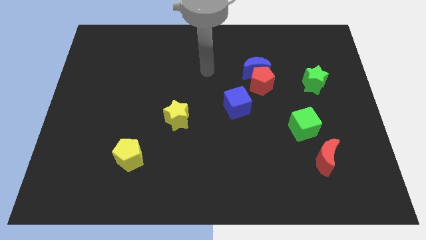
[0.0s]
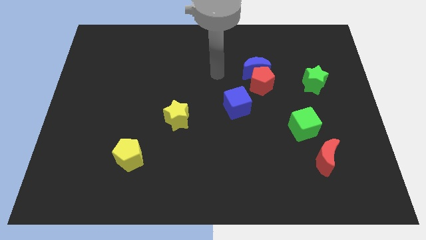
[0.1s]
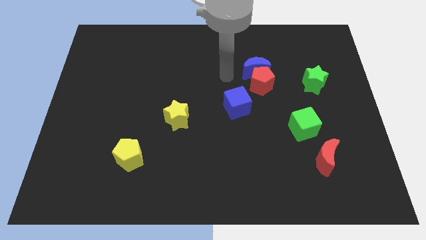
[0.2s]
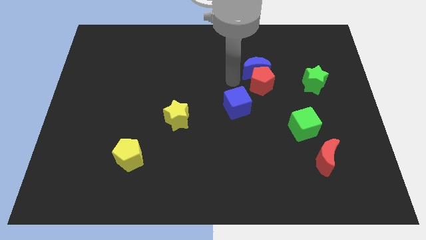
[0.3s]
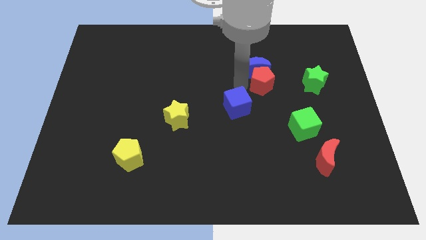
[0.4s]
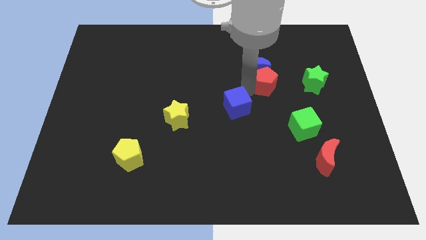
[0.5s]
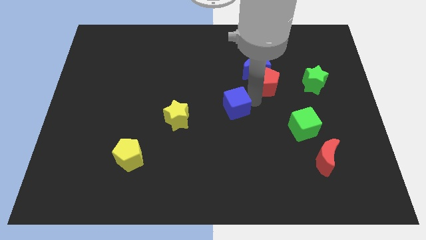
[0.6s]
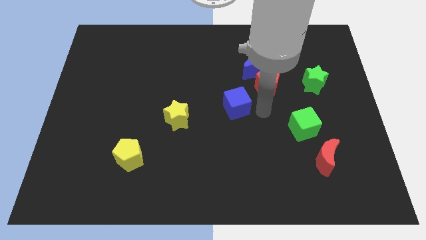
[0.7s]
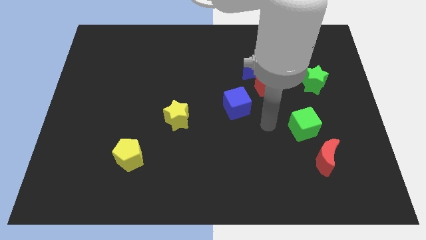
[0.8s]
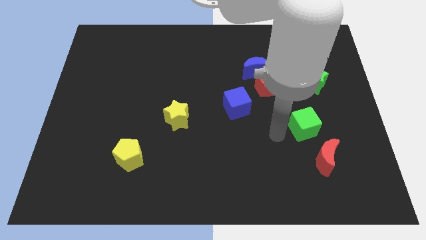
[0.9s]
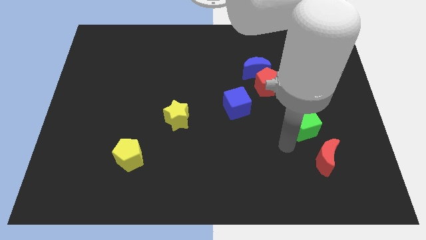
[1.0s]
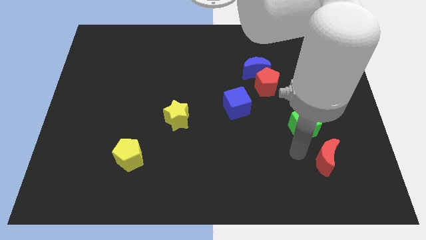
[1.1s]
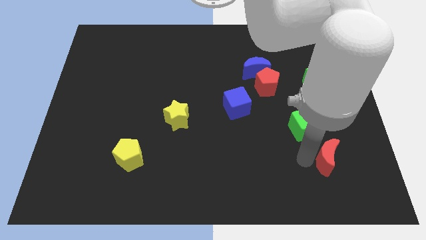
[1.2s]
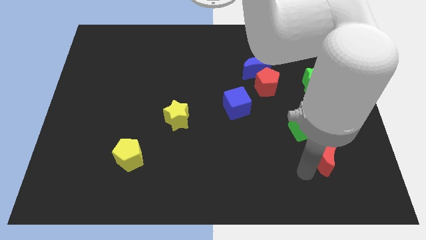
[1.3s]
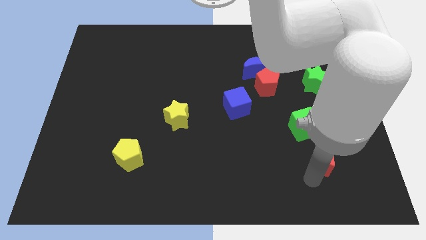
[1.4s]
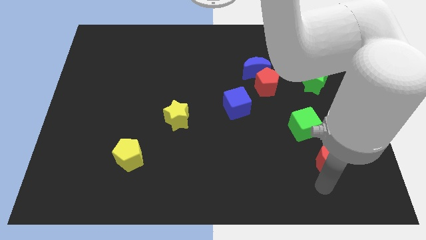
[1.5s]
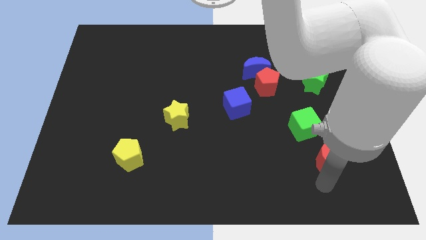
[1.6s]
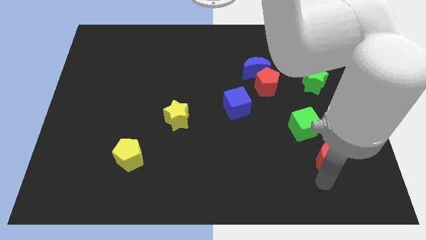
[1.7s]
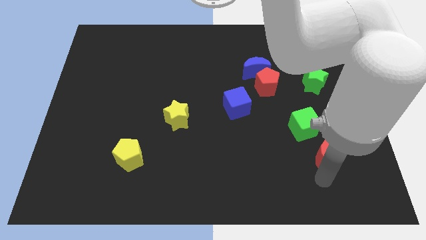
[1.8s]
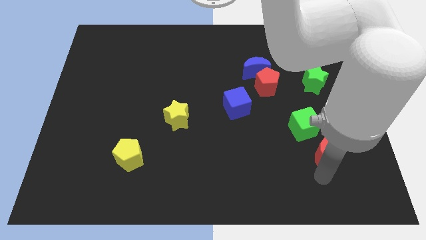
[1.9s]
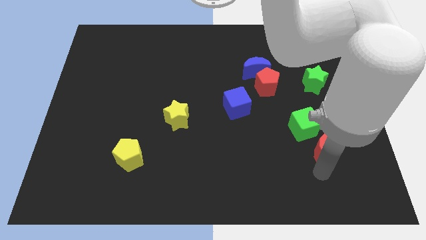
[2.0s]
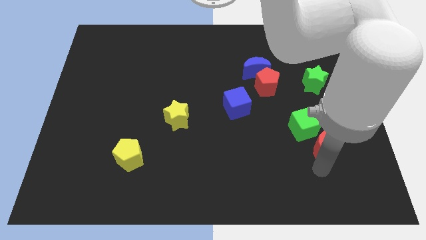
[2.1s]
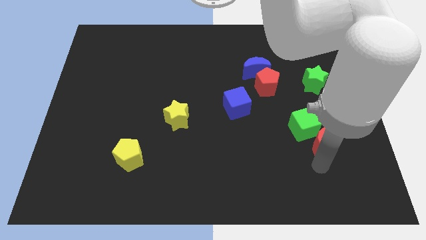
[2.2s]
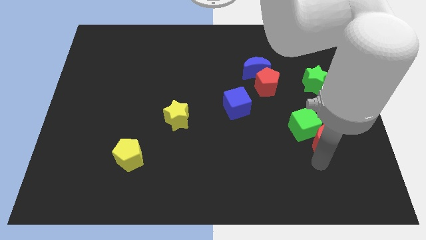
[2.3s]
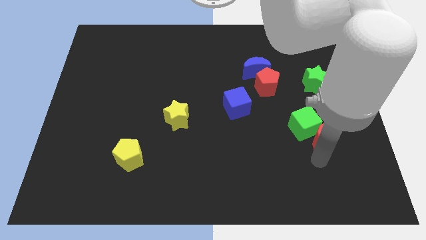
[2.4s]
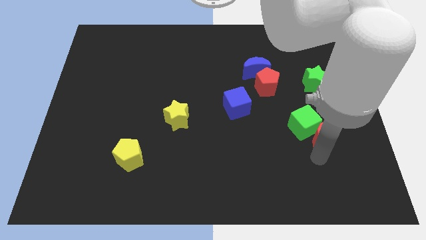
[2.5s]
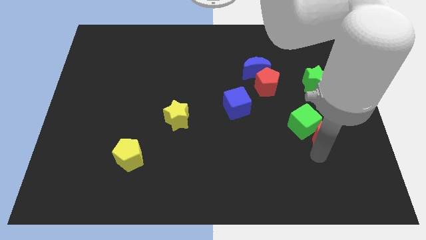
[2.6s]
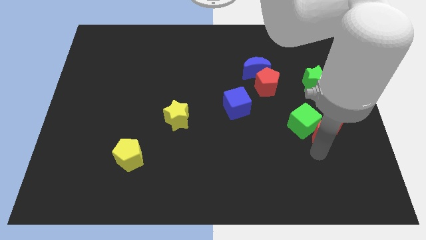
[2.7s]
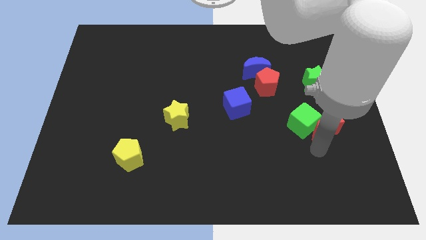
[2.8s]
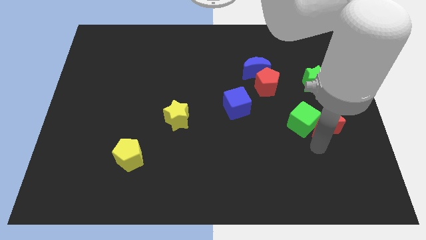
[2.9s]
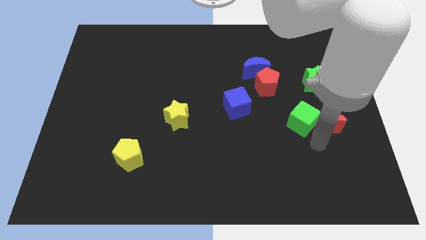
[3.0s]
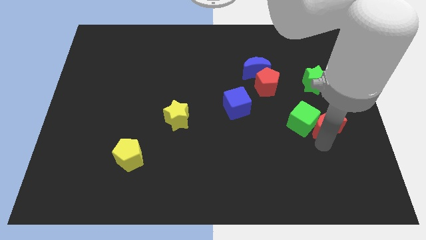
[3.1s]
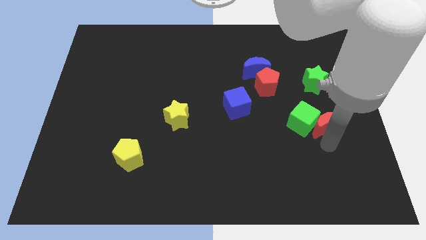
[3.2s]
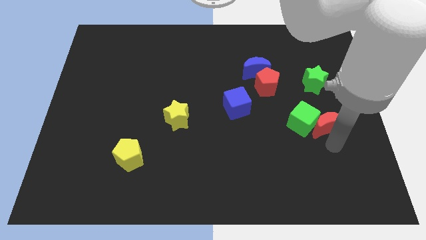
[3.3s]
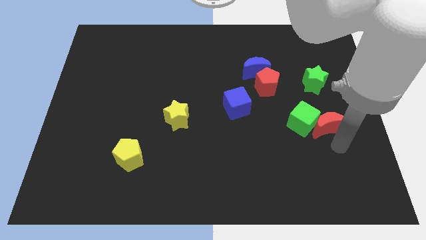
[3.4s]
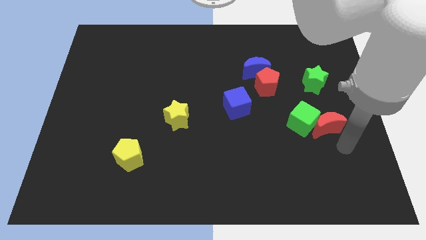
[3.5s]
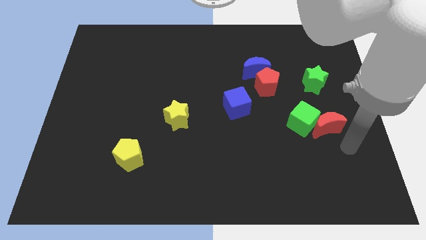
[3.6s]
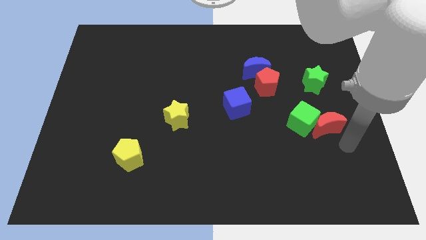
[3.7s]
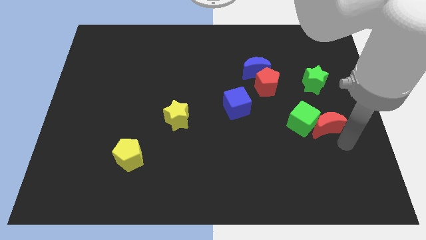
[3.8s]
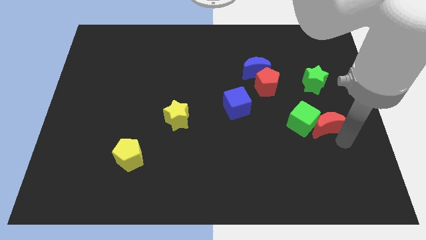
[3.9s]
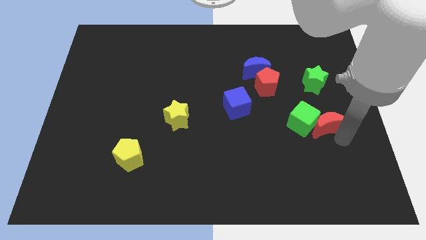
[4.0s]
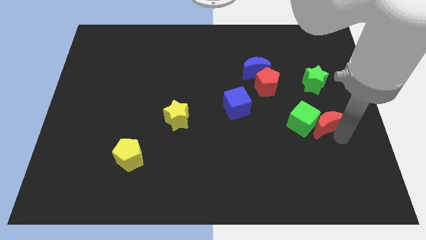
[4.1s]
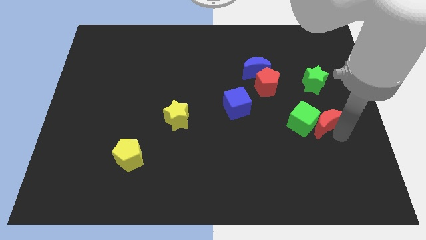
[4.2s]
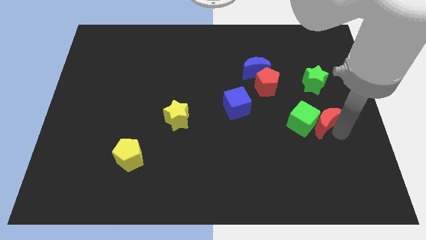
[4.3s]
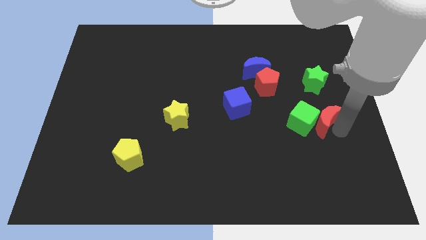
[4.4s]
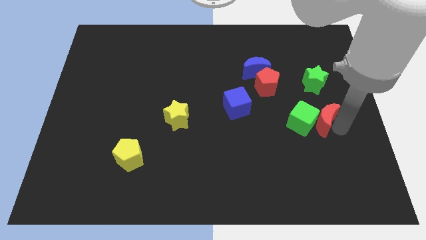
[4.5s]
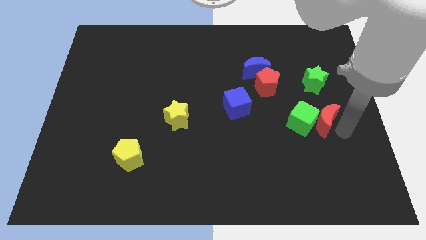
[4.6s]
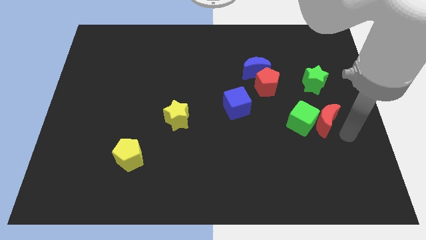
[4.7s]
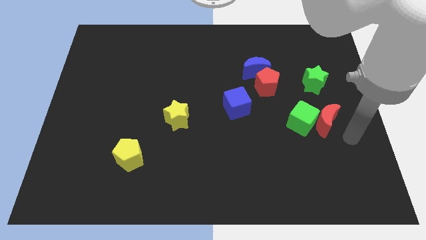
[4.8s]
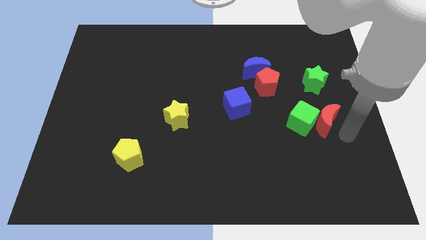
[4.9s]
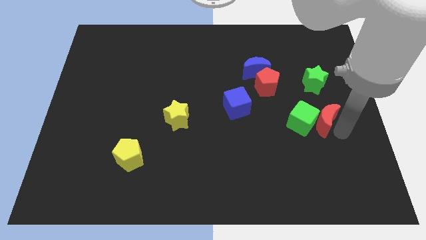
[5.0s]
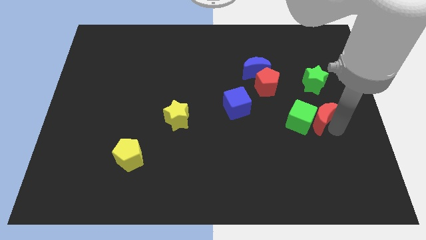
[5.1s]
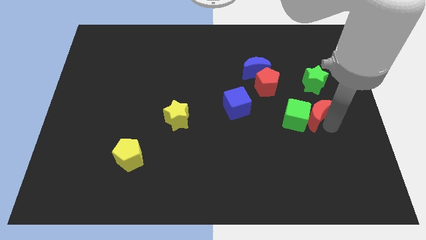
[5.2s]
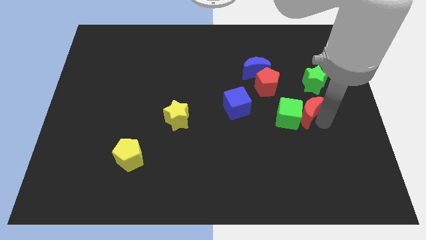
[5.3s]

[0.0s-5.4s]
push the red moon diagonally down and to the left of the green star

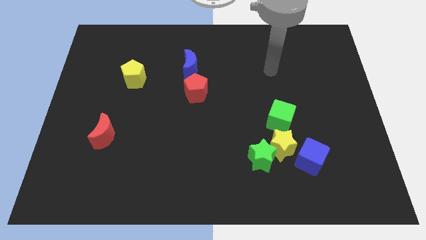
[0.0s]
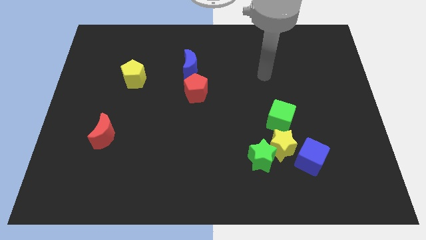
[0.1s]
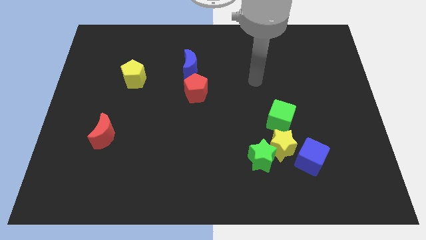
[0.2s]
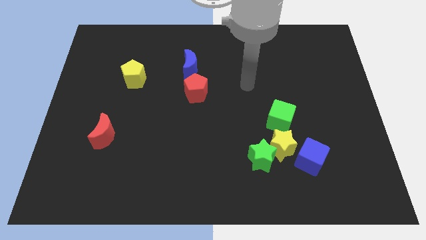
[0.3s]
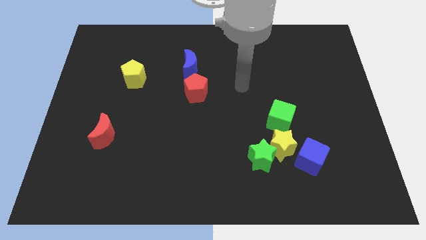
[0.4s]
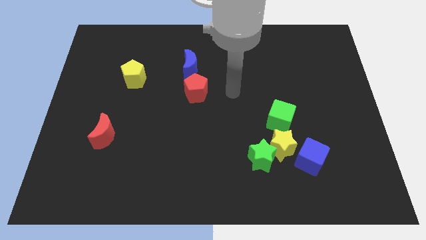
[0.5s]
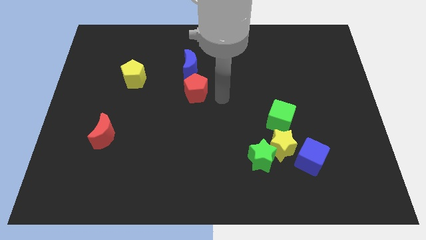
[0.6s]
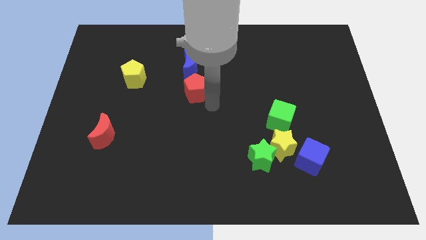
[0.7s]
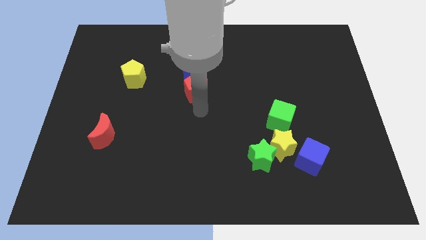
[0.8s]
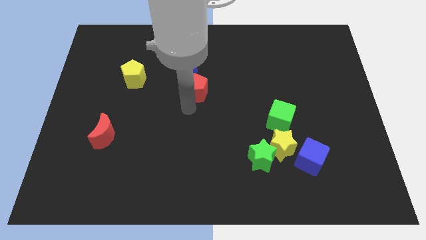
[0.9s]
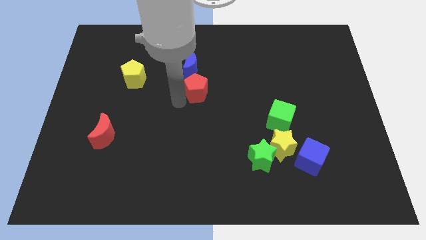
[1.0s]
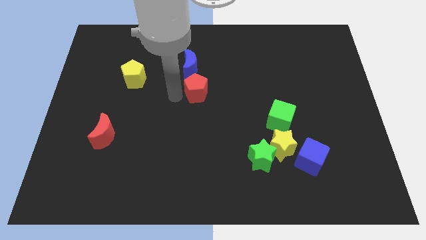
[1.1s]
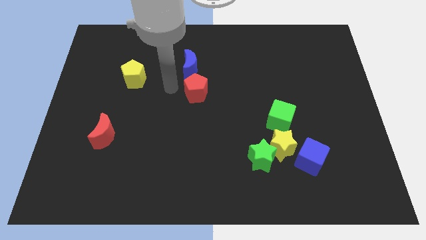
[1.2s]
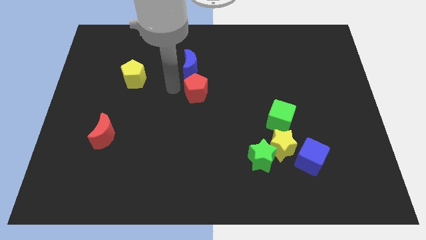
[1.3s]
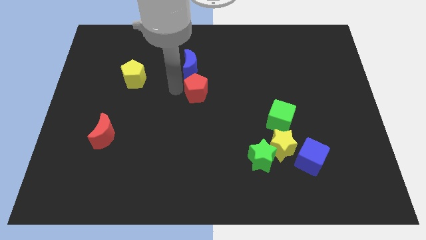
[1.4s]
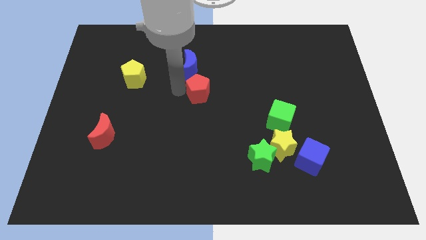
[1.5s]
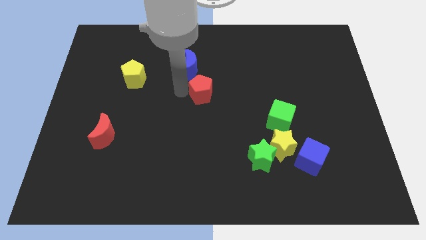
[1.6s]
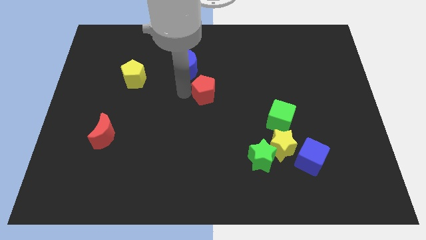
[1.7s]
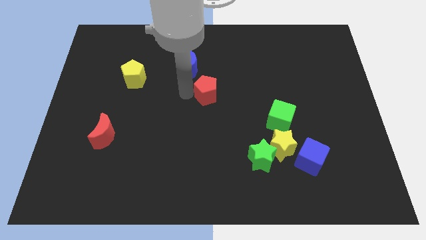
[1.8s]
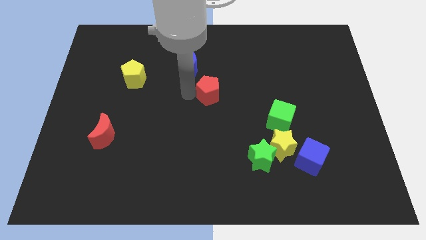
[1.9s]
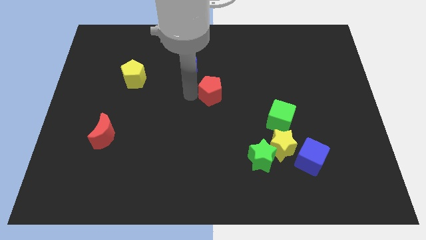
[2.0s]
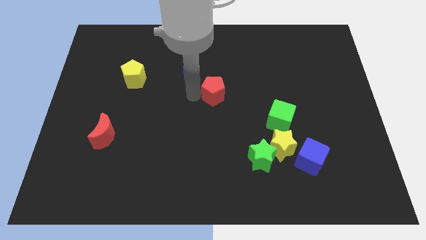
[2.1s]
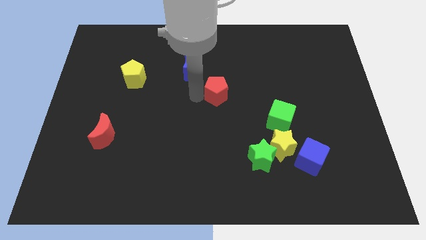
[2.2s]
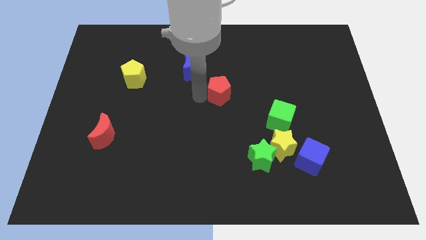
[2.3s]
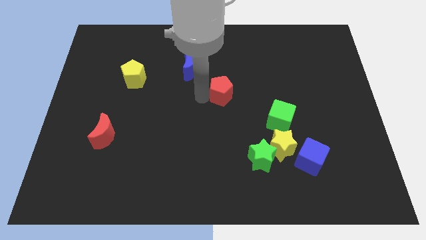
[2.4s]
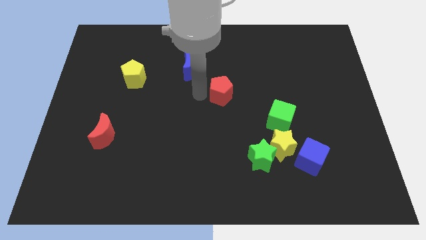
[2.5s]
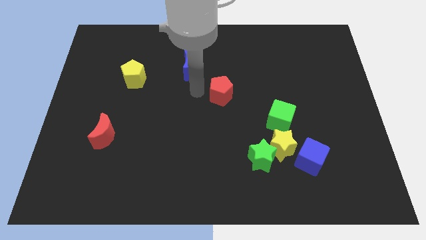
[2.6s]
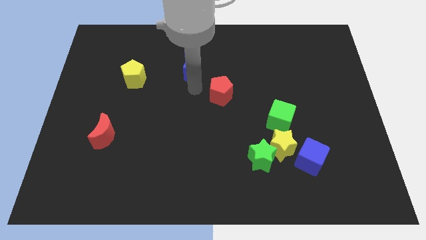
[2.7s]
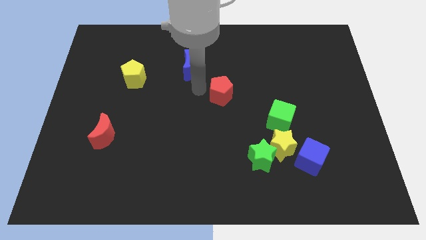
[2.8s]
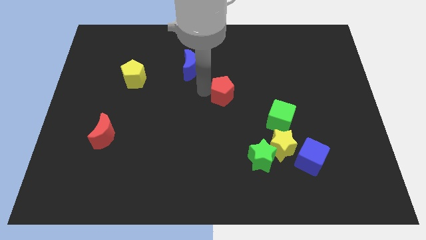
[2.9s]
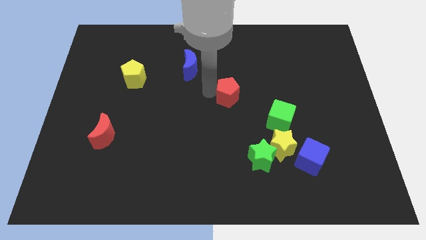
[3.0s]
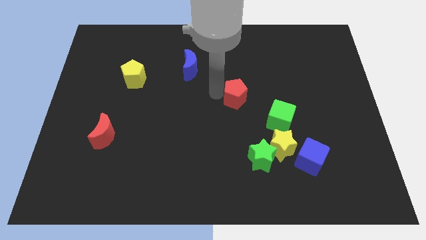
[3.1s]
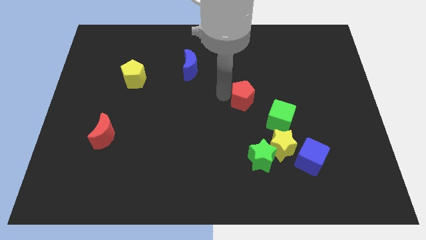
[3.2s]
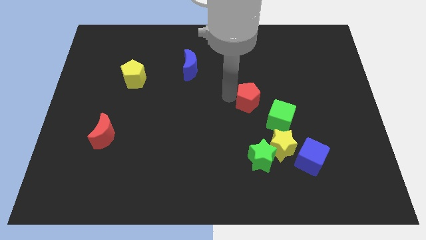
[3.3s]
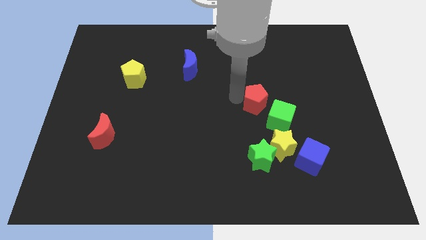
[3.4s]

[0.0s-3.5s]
put the red pentagon to the top of the yellow star
